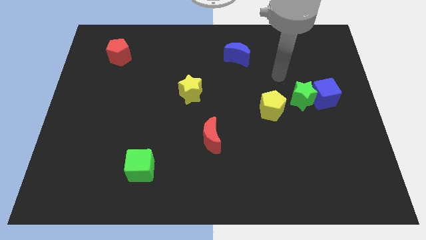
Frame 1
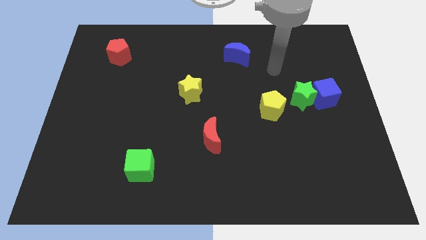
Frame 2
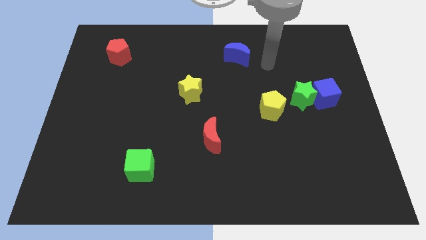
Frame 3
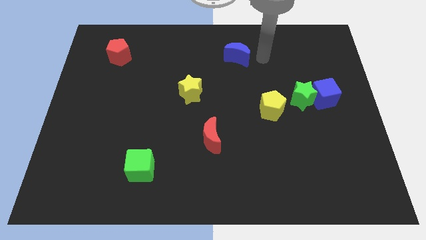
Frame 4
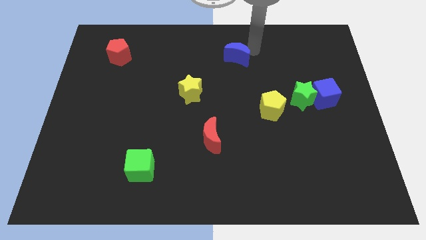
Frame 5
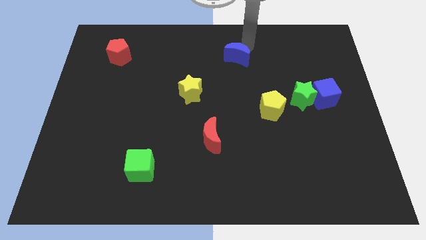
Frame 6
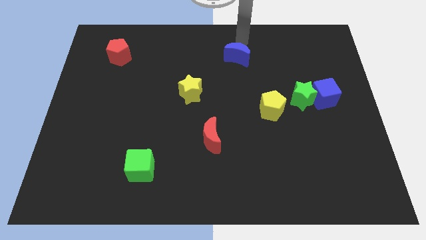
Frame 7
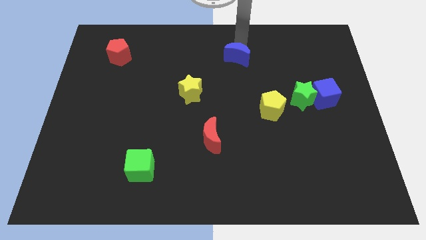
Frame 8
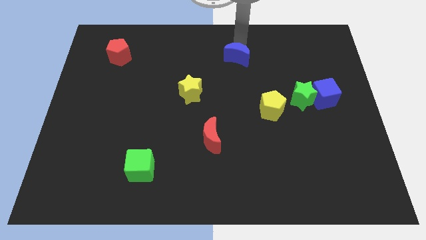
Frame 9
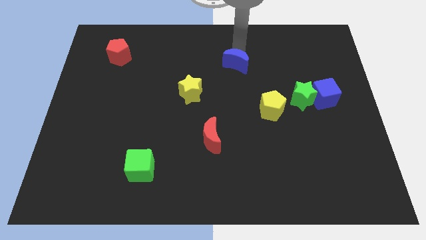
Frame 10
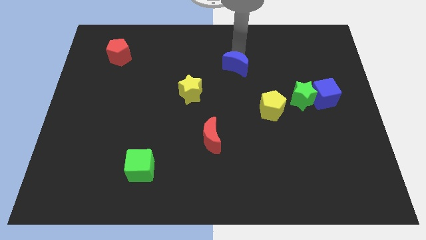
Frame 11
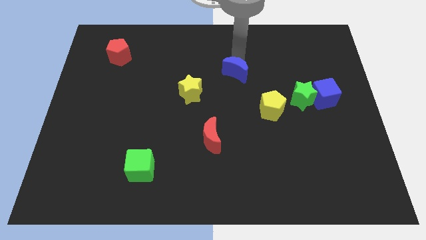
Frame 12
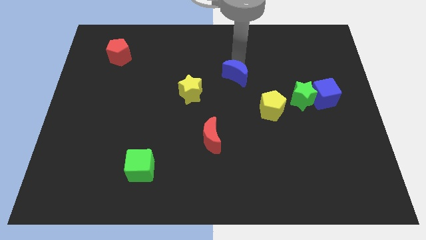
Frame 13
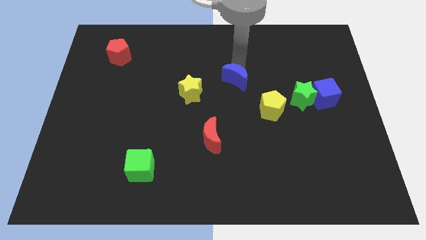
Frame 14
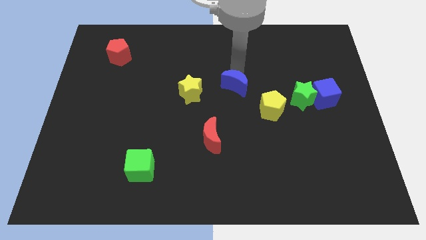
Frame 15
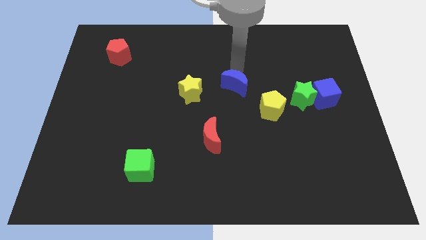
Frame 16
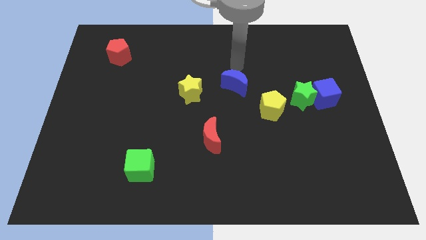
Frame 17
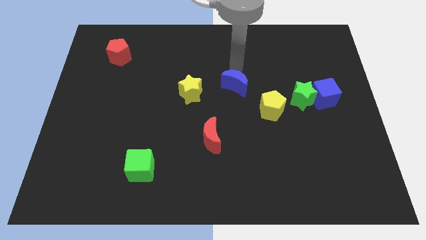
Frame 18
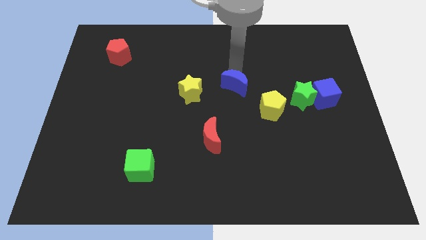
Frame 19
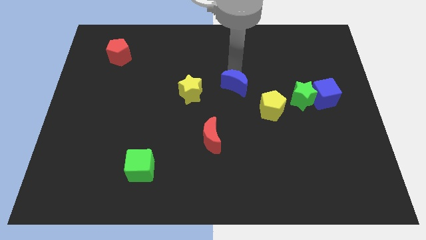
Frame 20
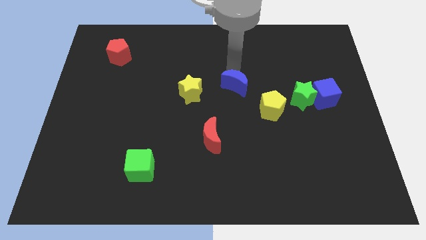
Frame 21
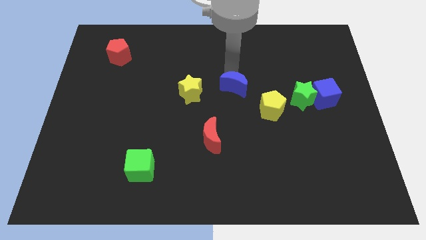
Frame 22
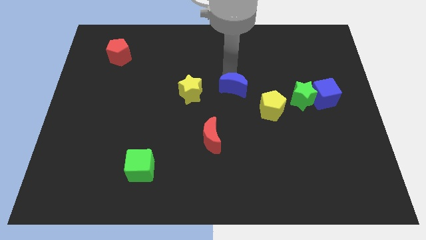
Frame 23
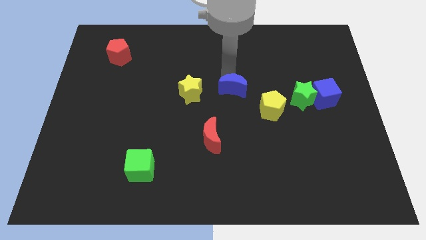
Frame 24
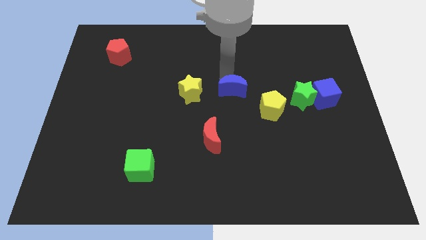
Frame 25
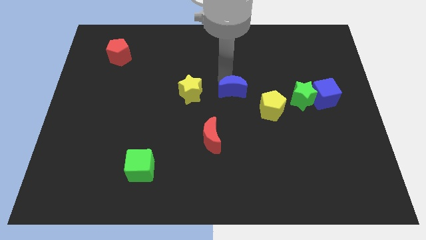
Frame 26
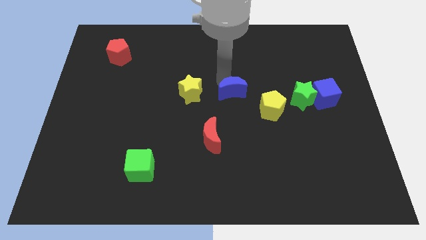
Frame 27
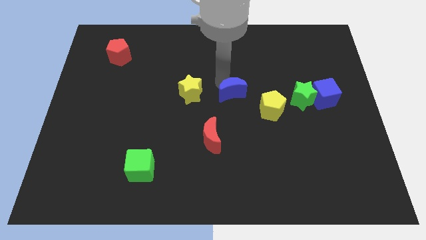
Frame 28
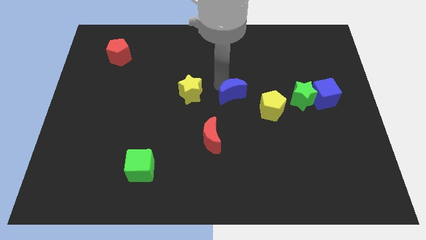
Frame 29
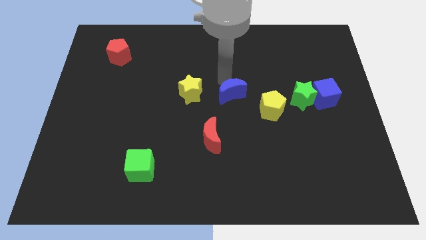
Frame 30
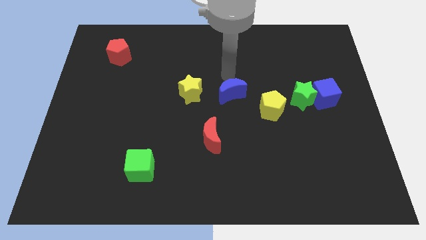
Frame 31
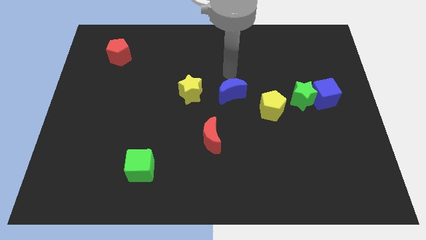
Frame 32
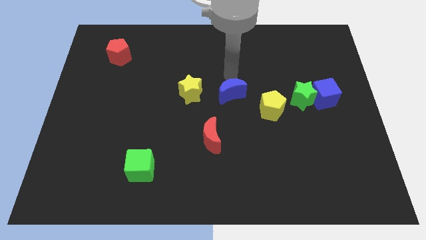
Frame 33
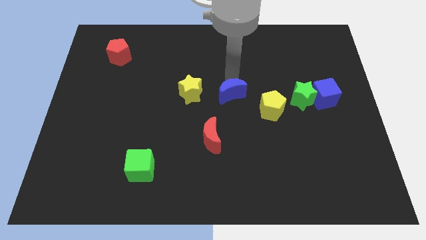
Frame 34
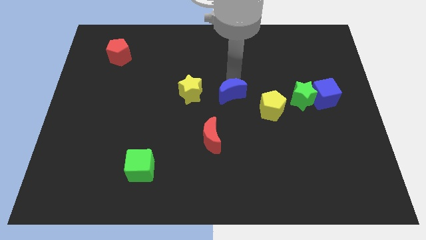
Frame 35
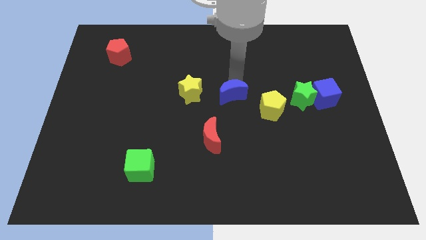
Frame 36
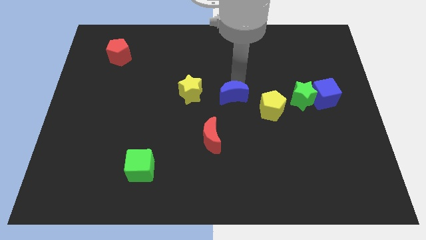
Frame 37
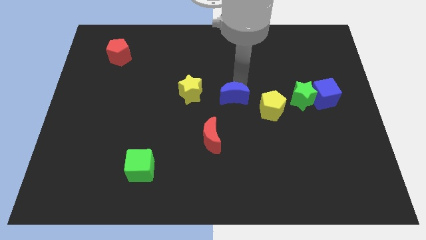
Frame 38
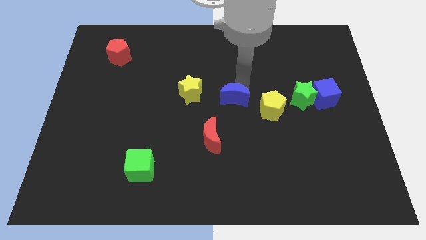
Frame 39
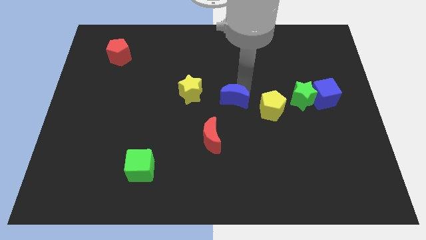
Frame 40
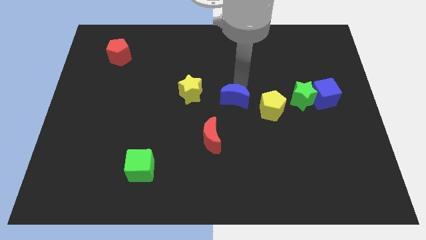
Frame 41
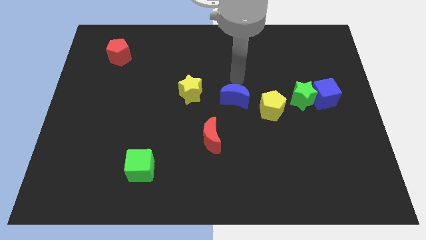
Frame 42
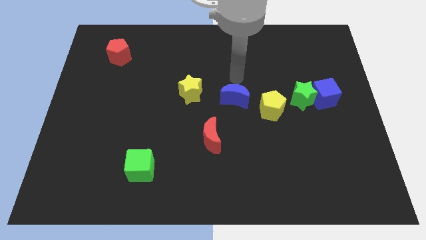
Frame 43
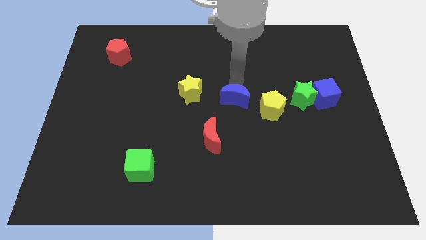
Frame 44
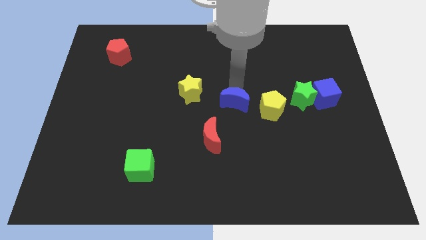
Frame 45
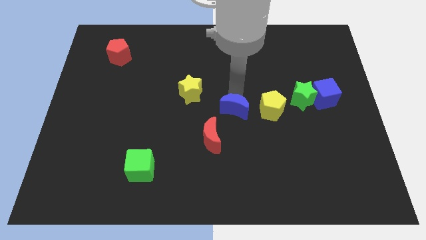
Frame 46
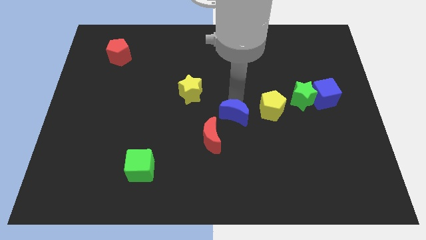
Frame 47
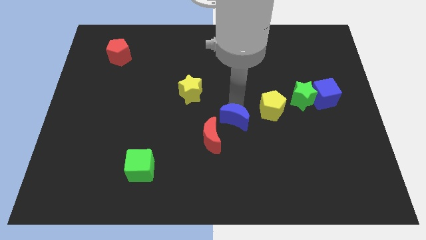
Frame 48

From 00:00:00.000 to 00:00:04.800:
push the blue moon down

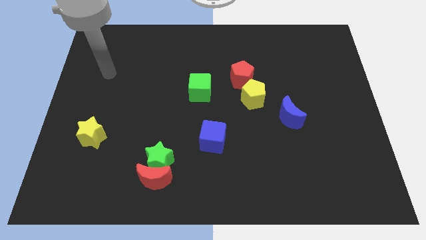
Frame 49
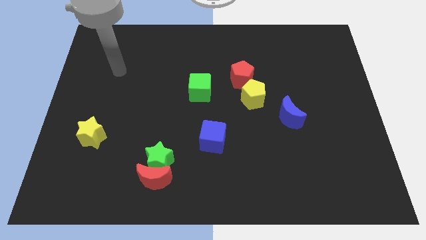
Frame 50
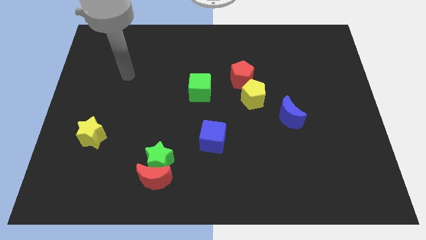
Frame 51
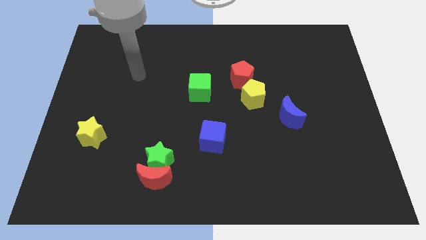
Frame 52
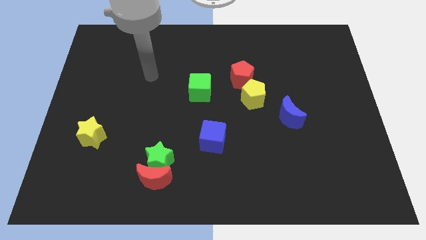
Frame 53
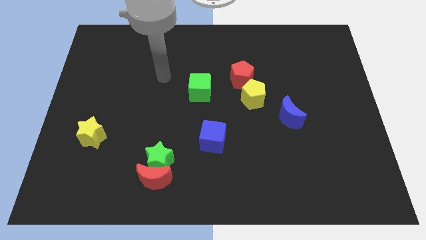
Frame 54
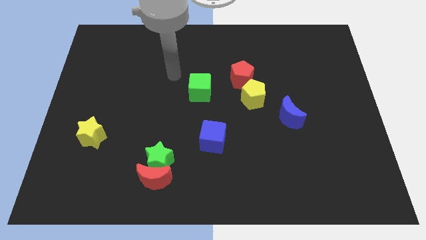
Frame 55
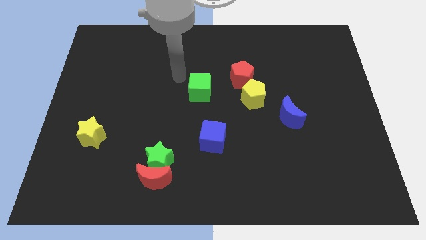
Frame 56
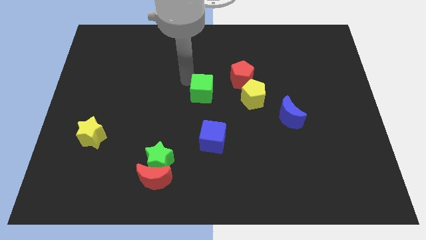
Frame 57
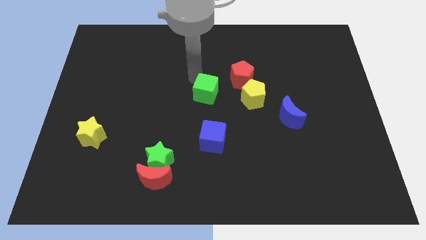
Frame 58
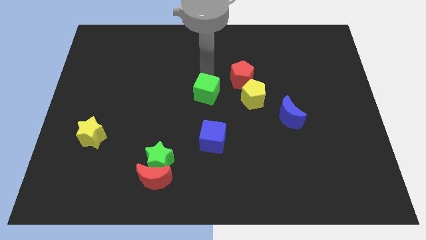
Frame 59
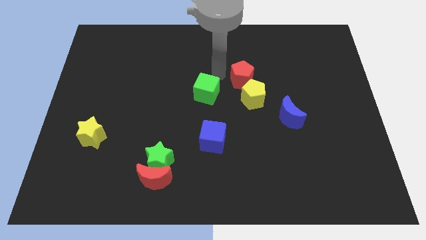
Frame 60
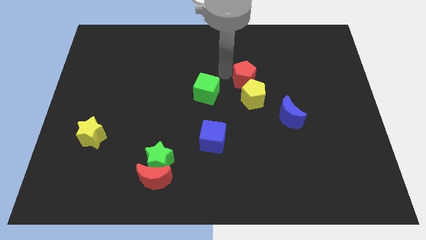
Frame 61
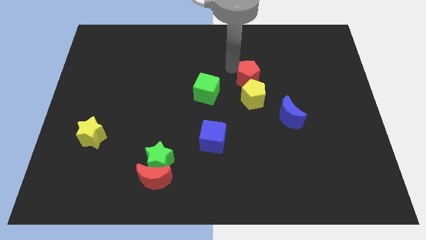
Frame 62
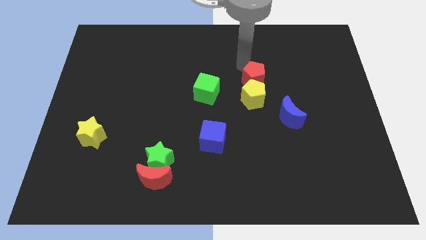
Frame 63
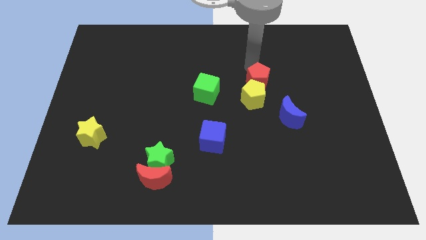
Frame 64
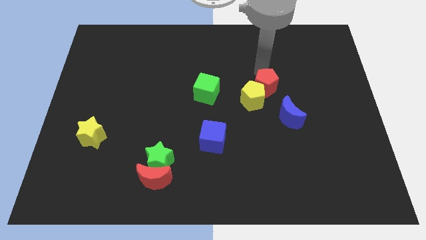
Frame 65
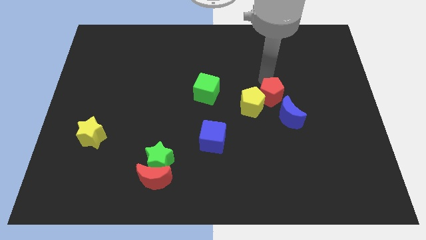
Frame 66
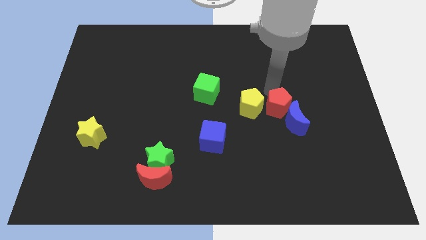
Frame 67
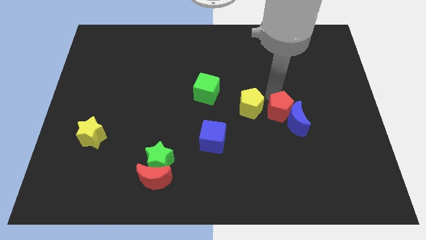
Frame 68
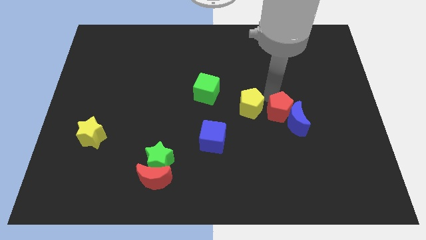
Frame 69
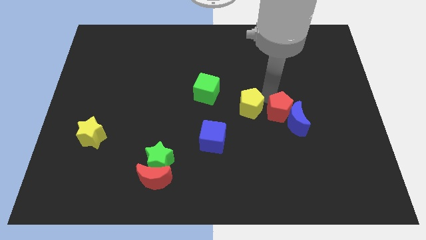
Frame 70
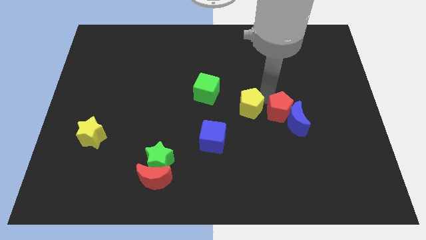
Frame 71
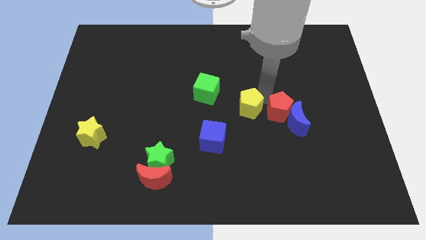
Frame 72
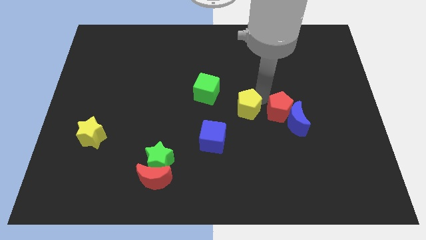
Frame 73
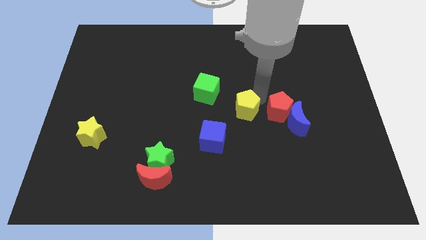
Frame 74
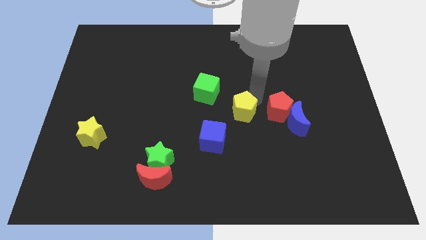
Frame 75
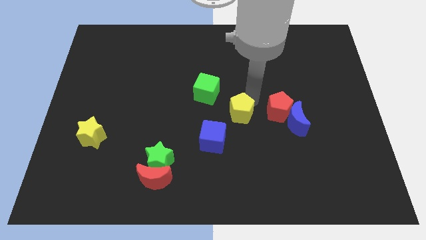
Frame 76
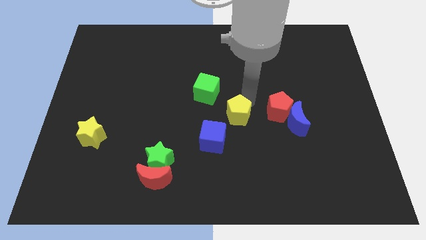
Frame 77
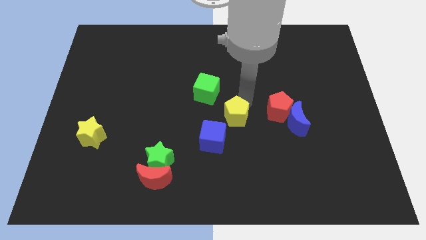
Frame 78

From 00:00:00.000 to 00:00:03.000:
slightly push the yellow pentagon downwards and left diagonally

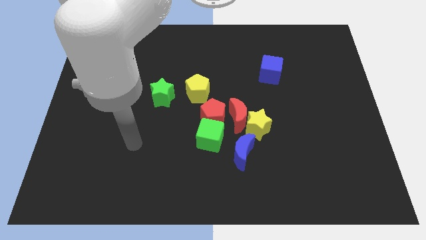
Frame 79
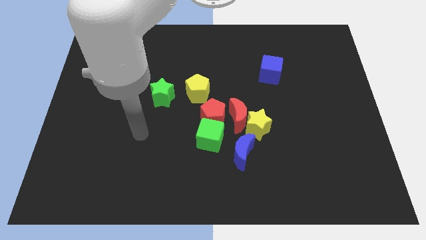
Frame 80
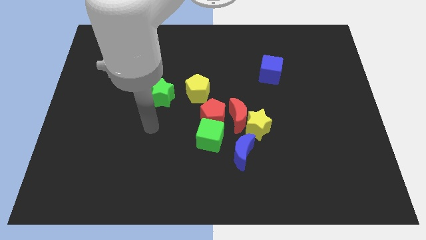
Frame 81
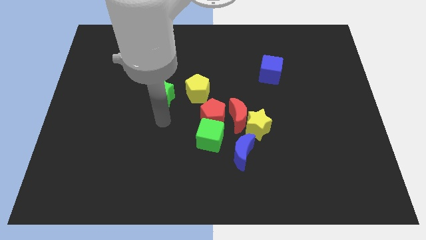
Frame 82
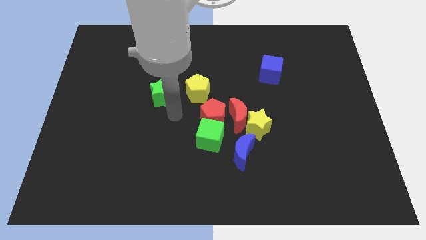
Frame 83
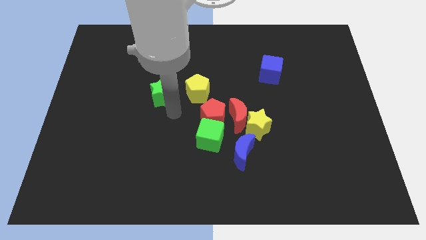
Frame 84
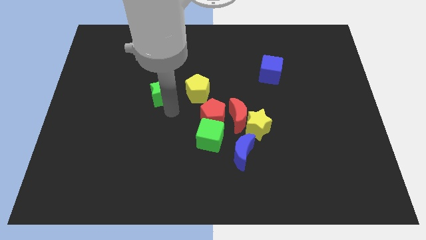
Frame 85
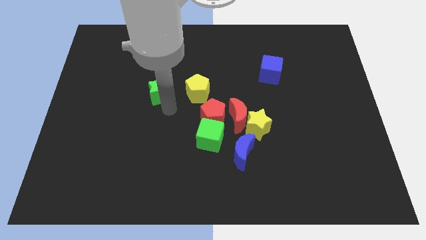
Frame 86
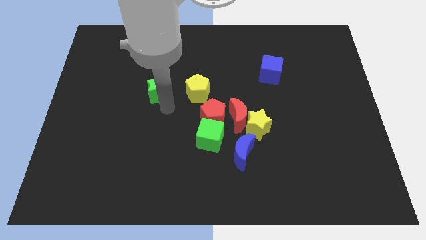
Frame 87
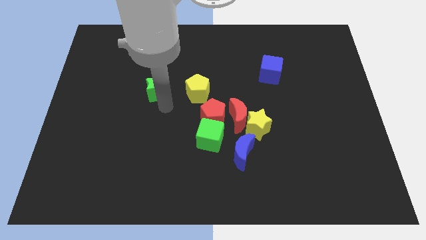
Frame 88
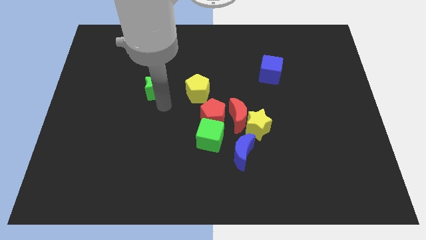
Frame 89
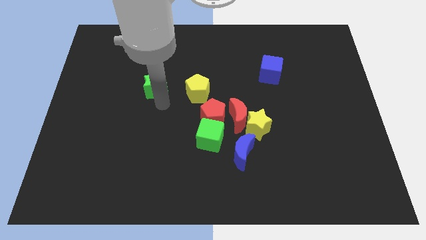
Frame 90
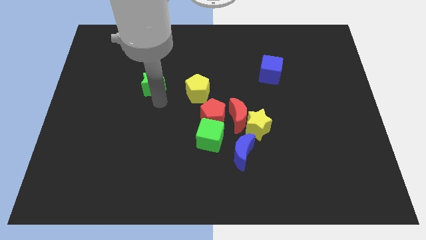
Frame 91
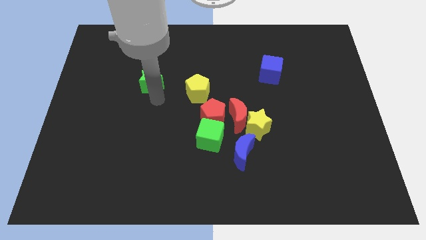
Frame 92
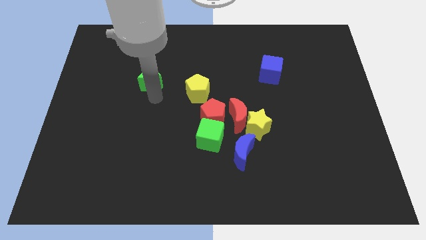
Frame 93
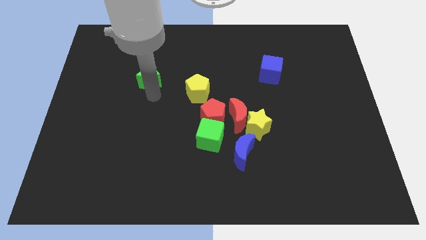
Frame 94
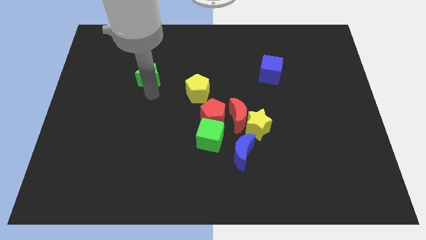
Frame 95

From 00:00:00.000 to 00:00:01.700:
push the green star diagonally upwards and to the left slightly
